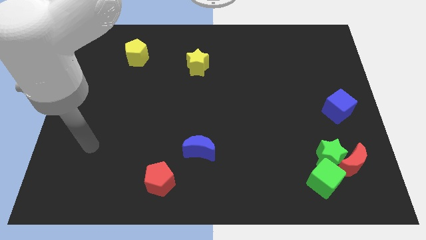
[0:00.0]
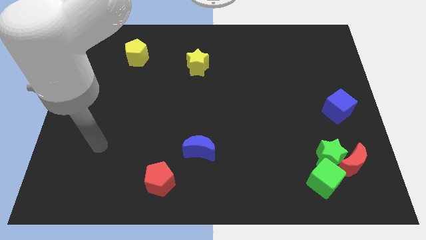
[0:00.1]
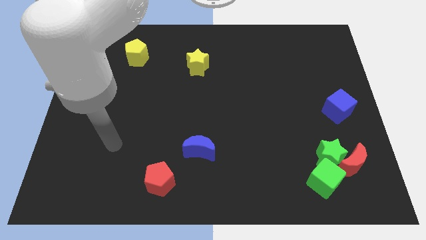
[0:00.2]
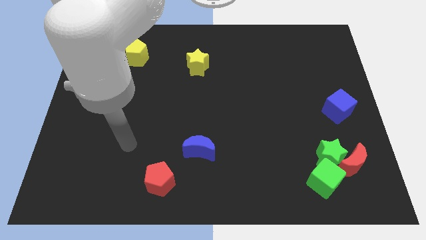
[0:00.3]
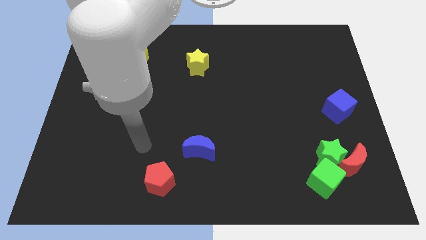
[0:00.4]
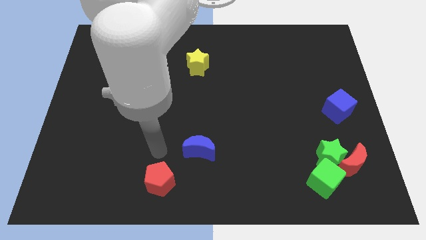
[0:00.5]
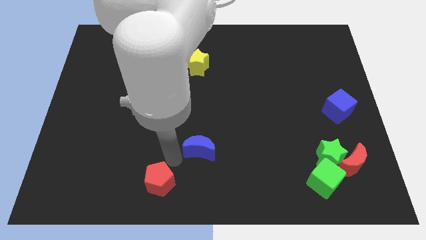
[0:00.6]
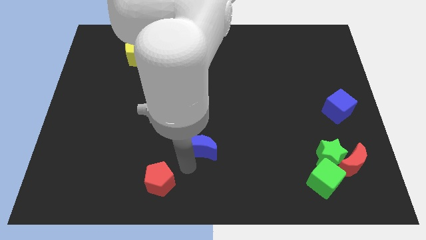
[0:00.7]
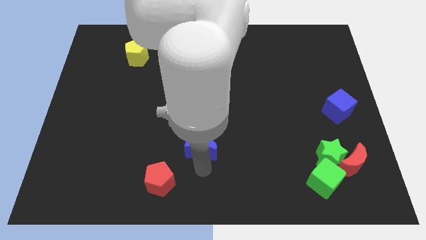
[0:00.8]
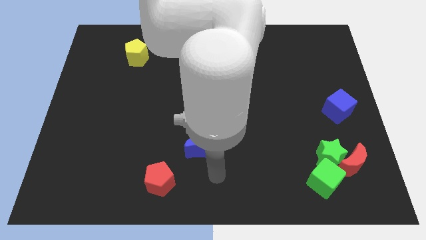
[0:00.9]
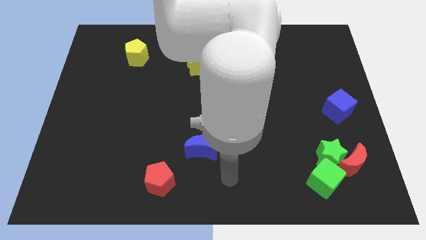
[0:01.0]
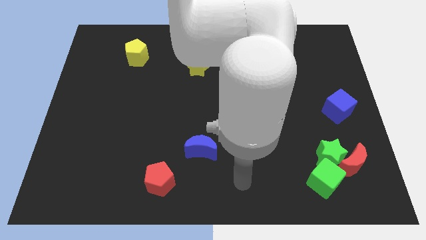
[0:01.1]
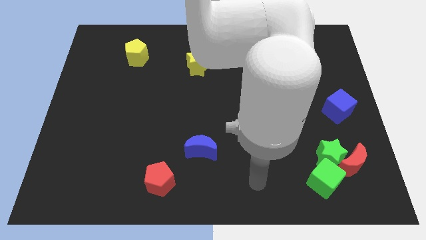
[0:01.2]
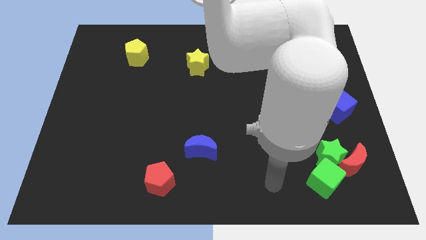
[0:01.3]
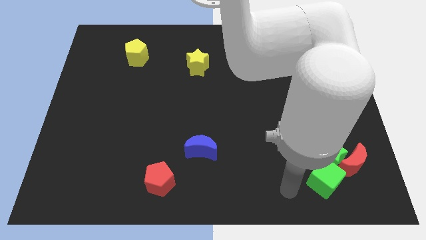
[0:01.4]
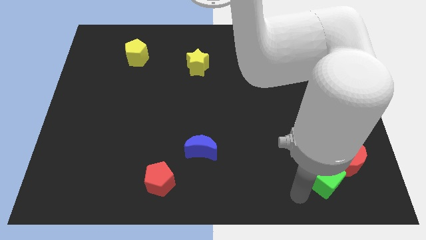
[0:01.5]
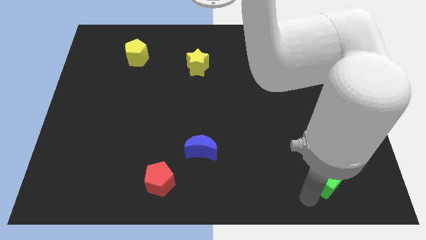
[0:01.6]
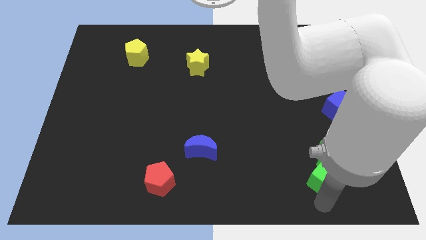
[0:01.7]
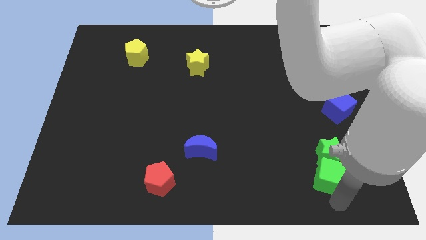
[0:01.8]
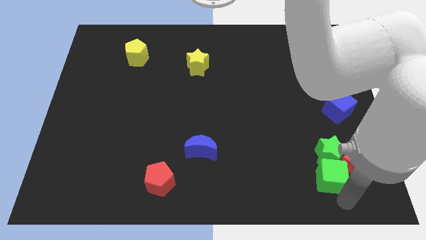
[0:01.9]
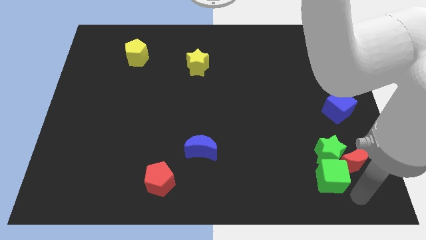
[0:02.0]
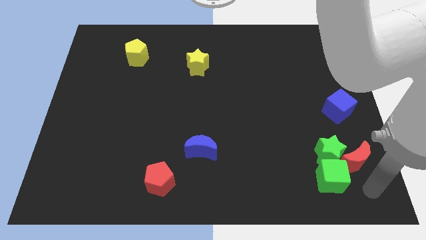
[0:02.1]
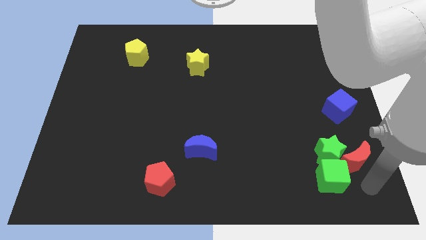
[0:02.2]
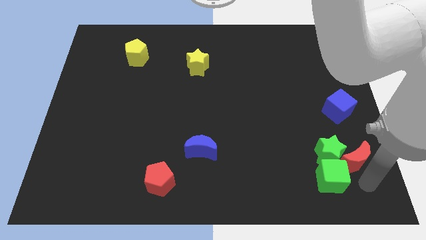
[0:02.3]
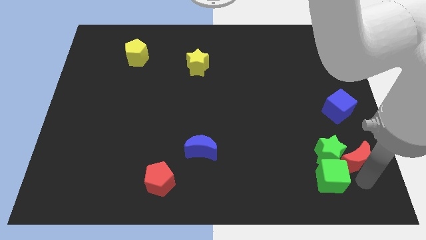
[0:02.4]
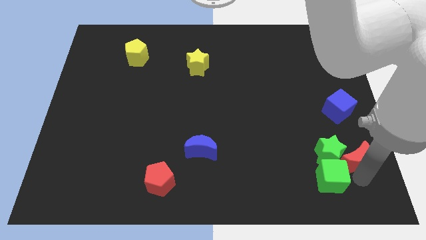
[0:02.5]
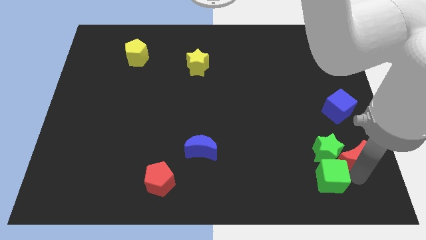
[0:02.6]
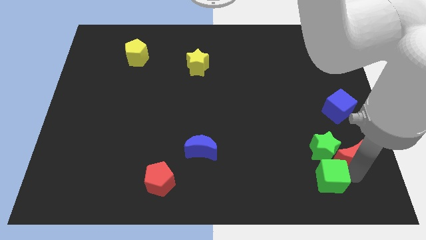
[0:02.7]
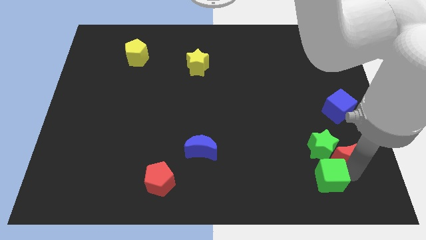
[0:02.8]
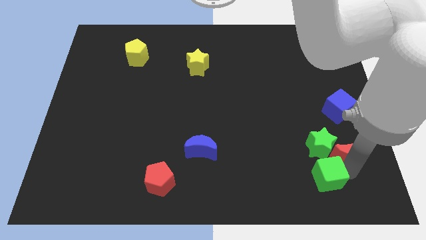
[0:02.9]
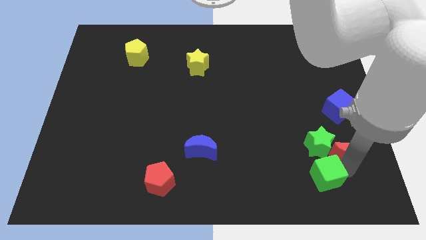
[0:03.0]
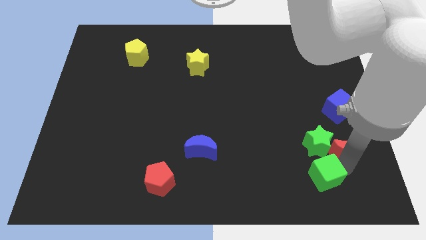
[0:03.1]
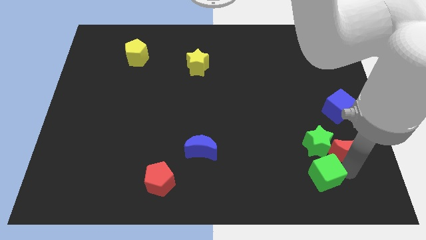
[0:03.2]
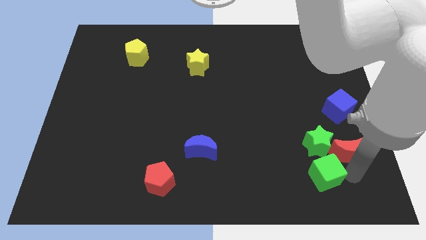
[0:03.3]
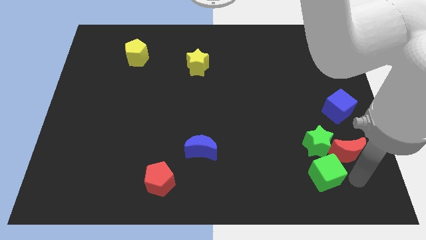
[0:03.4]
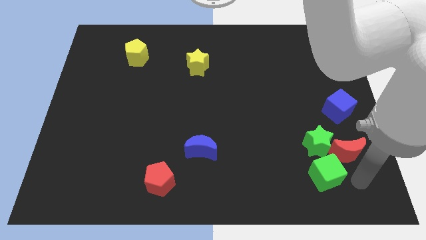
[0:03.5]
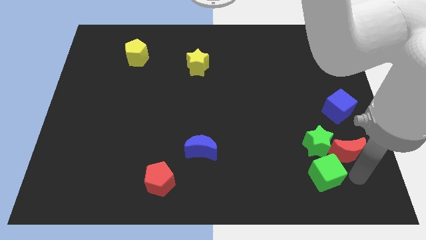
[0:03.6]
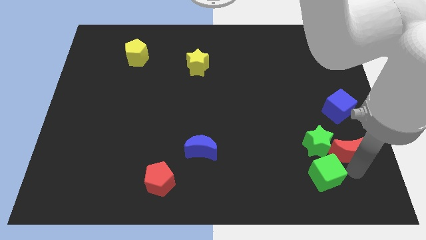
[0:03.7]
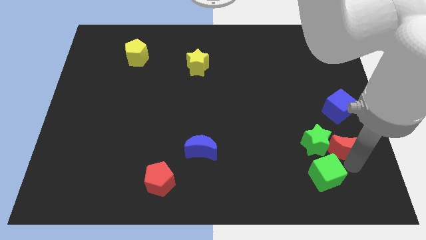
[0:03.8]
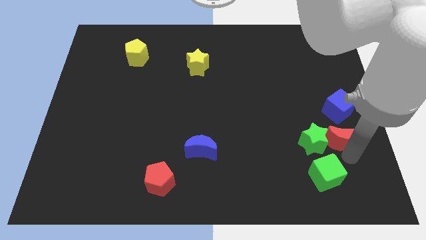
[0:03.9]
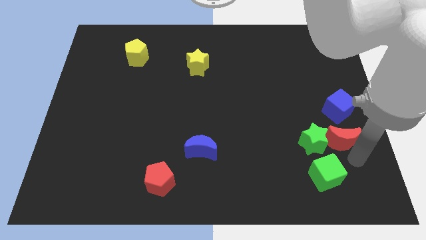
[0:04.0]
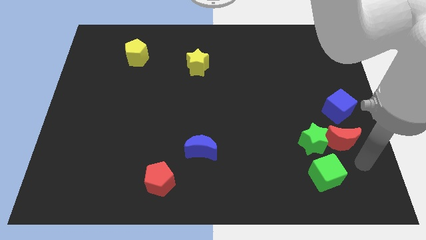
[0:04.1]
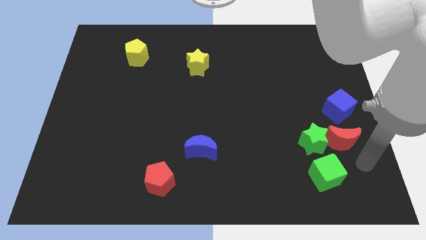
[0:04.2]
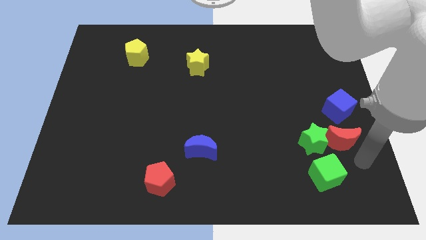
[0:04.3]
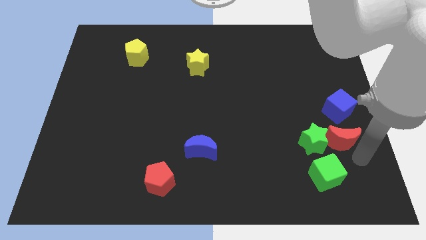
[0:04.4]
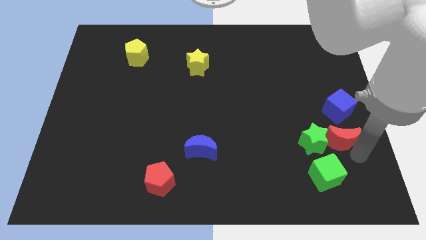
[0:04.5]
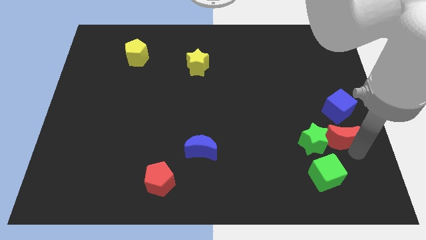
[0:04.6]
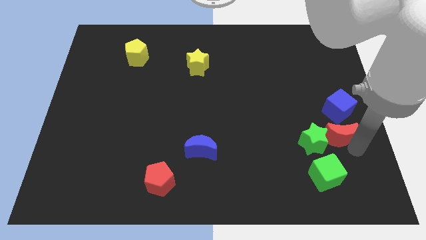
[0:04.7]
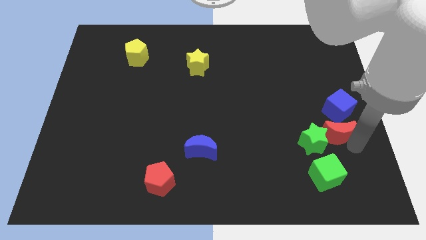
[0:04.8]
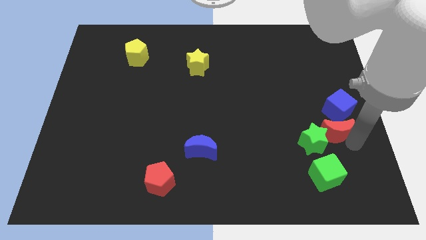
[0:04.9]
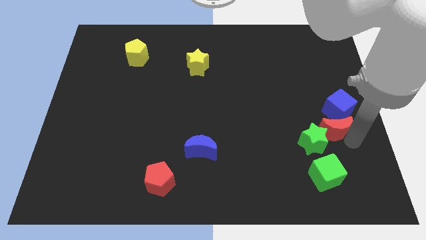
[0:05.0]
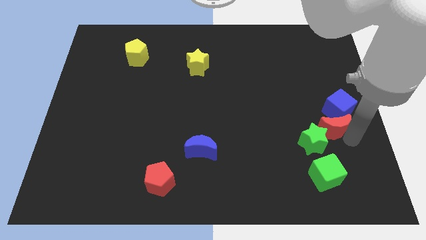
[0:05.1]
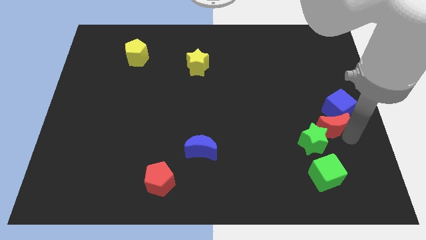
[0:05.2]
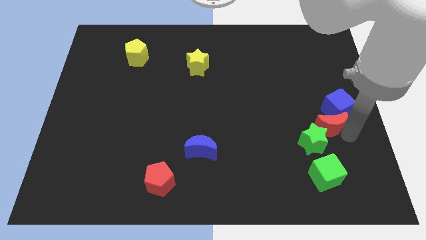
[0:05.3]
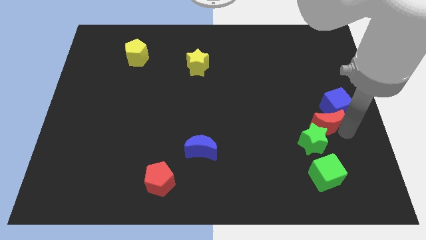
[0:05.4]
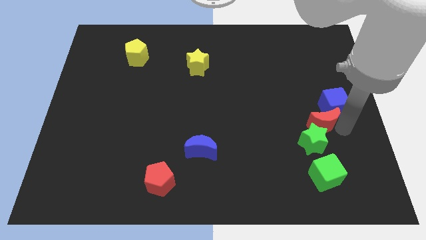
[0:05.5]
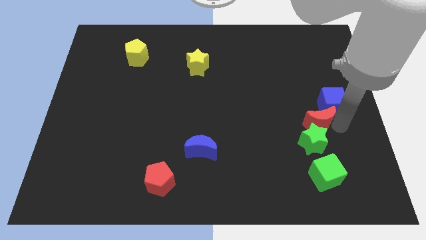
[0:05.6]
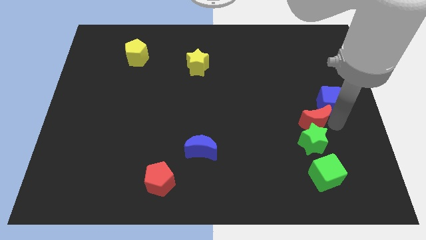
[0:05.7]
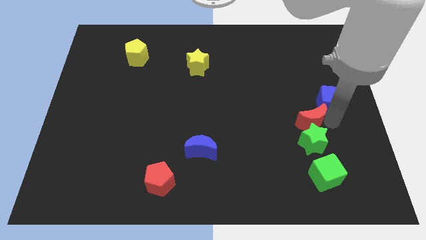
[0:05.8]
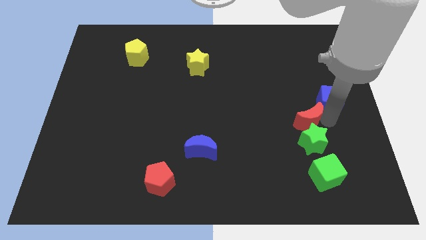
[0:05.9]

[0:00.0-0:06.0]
put the red moon just left of the blue cube

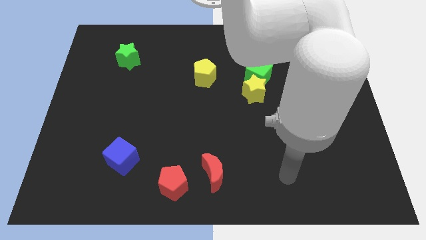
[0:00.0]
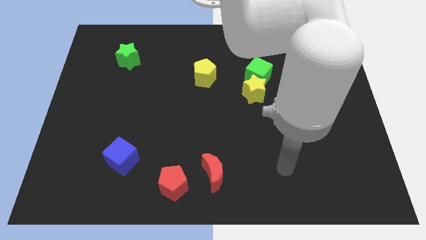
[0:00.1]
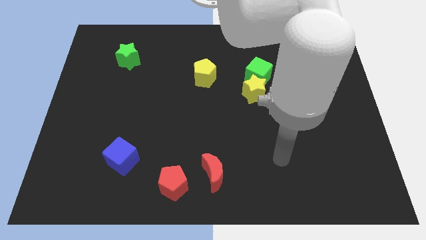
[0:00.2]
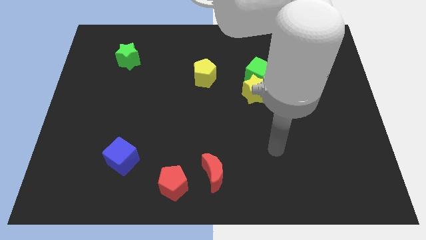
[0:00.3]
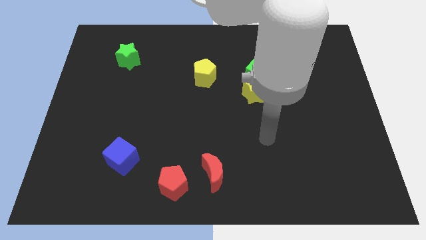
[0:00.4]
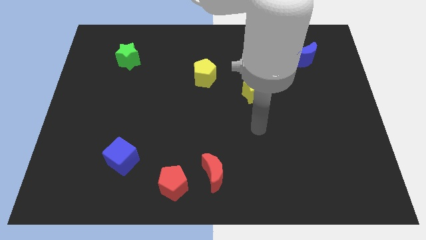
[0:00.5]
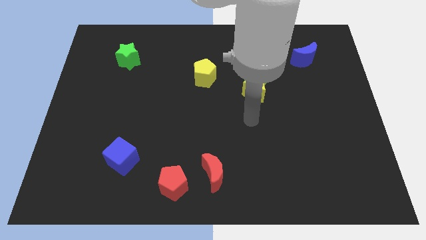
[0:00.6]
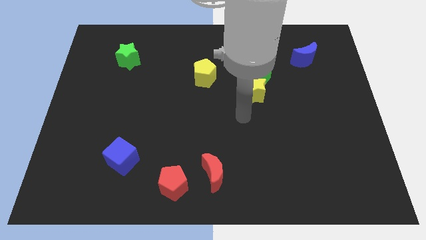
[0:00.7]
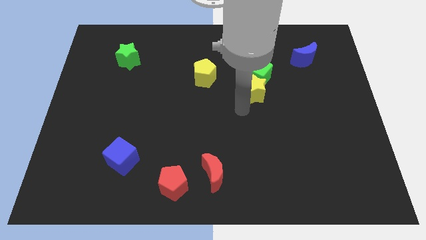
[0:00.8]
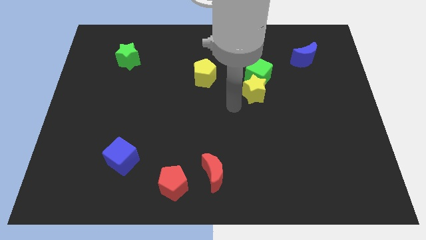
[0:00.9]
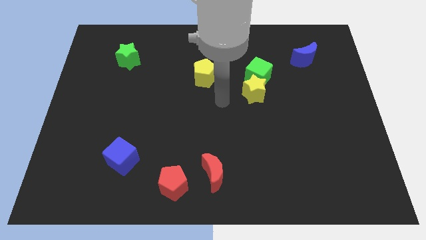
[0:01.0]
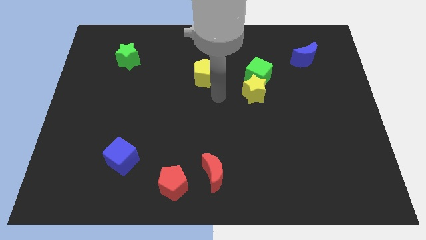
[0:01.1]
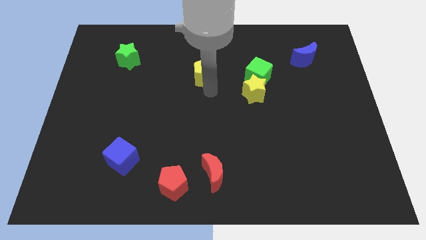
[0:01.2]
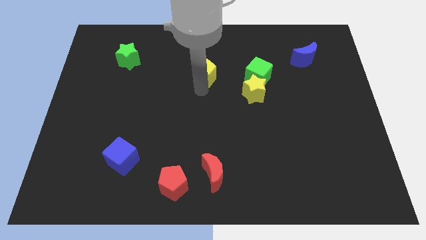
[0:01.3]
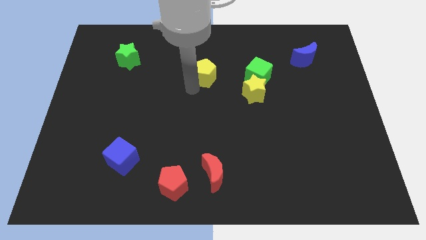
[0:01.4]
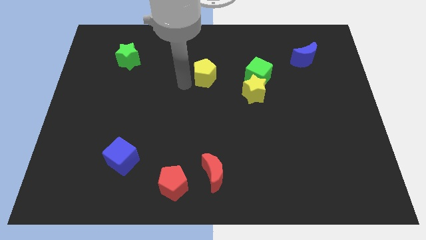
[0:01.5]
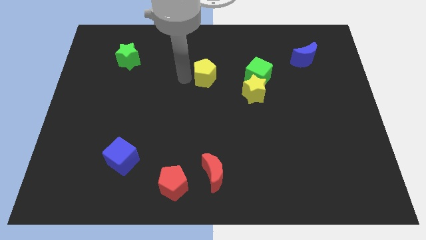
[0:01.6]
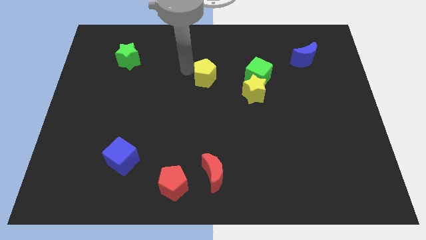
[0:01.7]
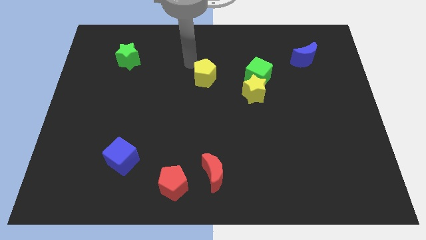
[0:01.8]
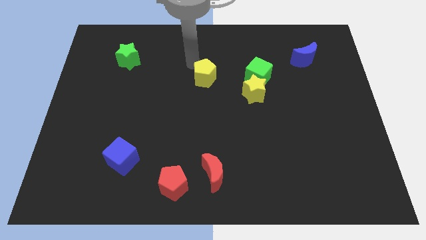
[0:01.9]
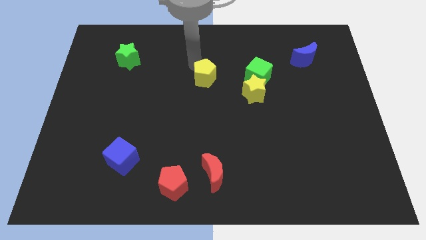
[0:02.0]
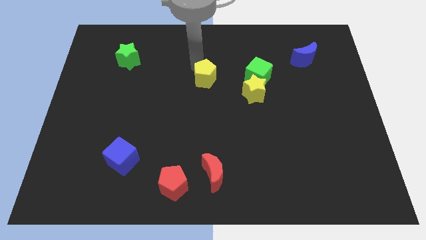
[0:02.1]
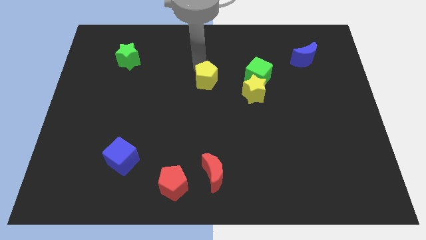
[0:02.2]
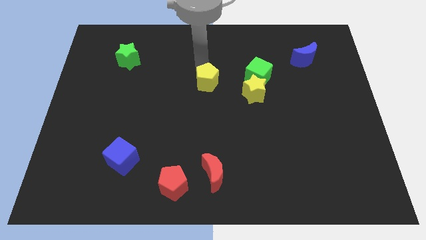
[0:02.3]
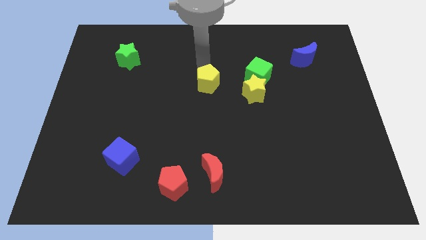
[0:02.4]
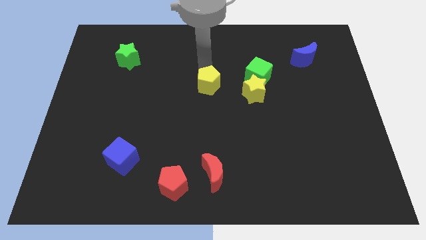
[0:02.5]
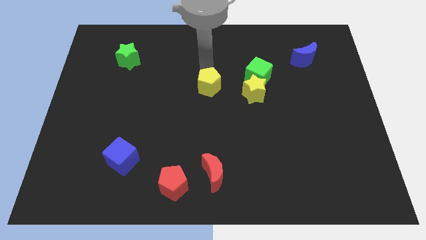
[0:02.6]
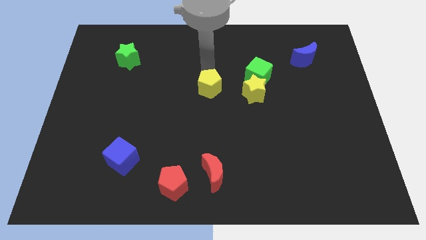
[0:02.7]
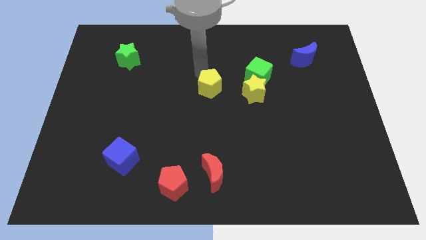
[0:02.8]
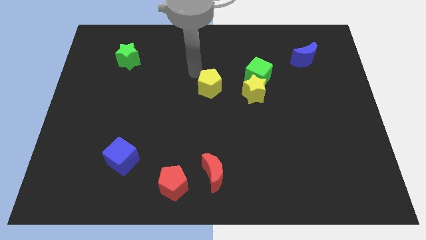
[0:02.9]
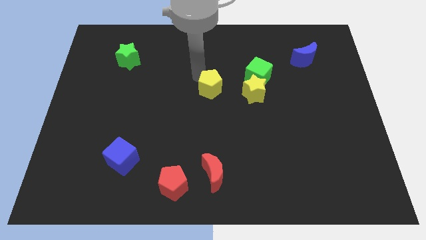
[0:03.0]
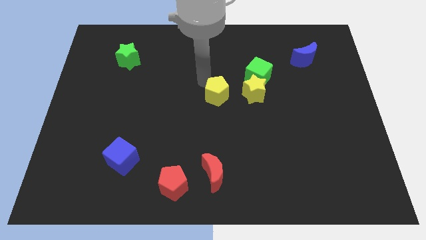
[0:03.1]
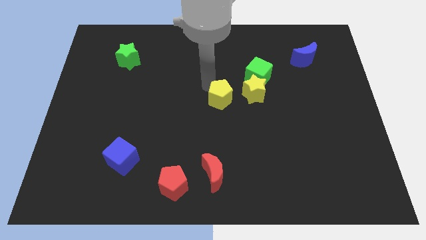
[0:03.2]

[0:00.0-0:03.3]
put the yellow pentagon diagonally down and to the left of the yellow star
